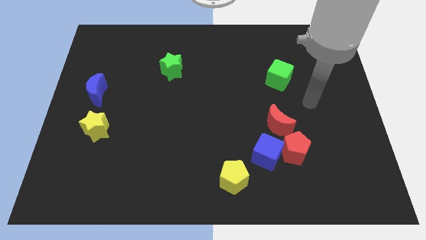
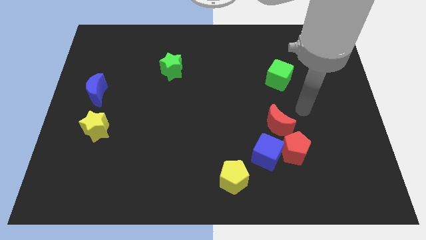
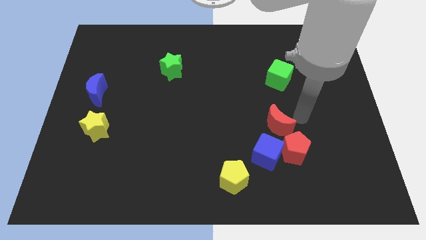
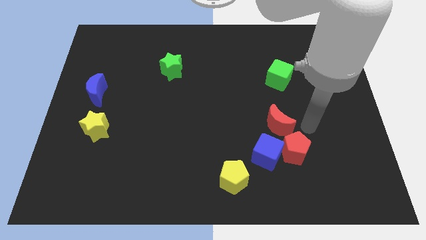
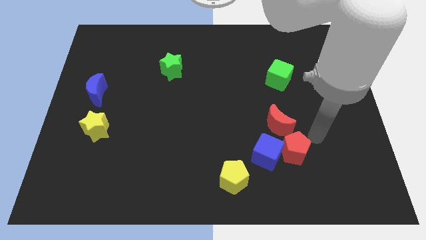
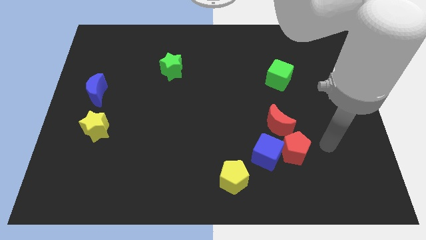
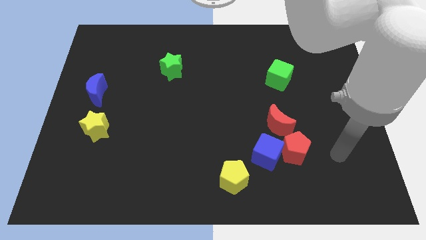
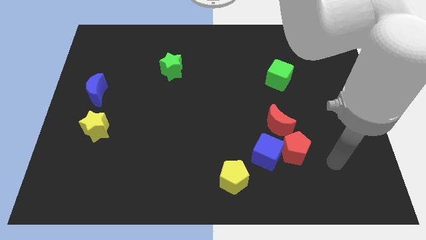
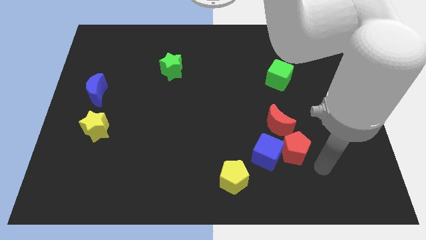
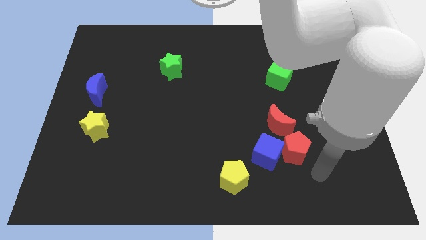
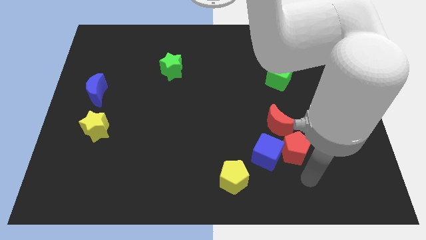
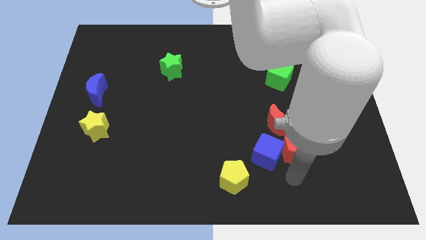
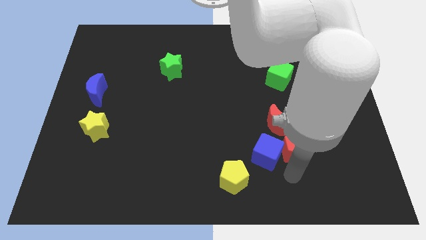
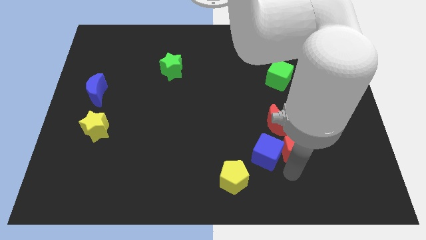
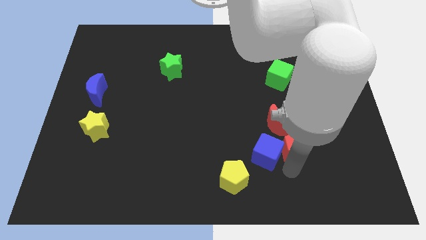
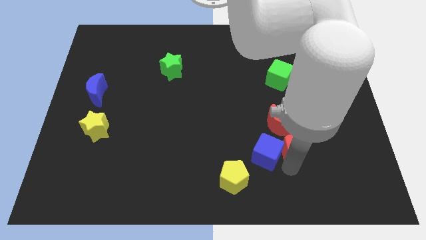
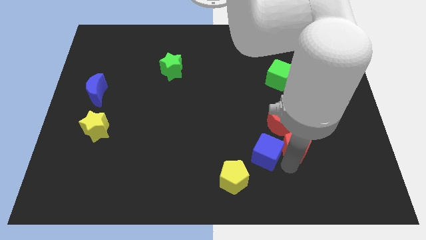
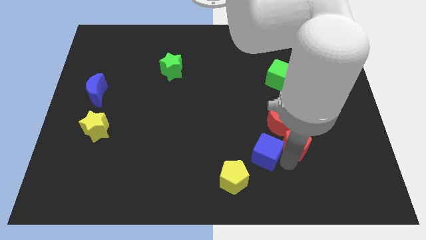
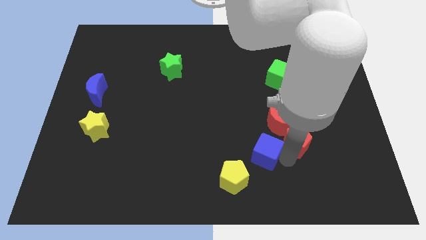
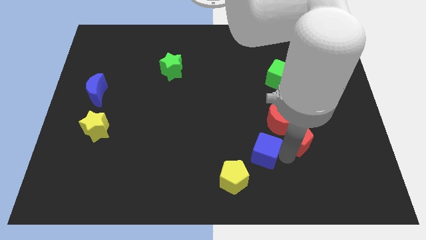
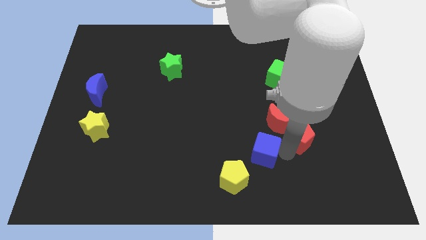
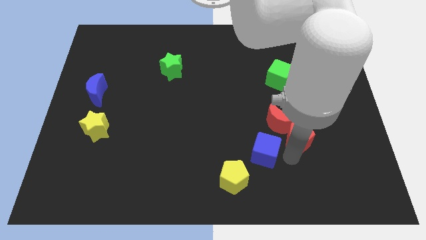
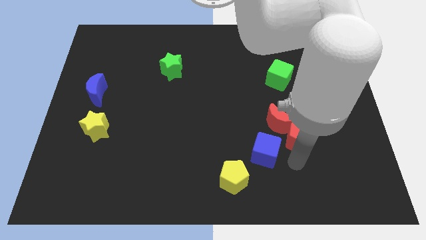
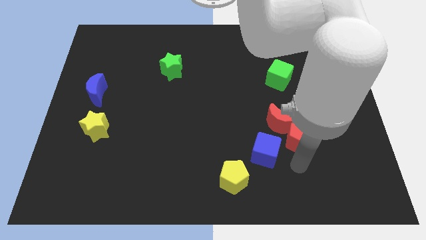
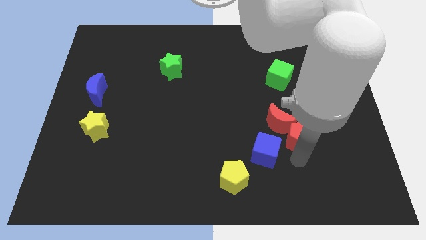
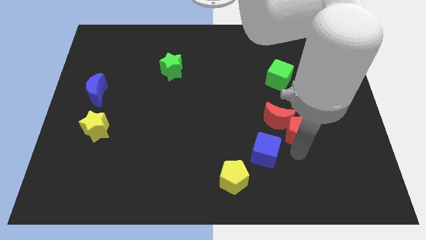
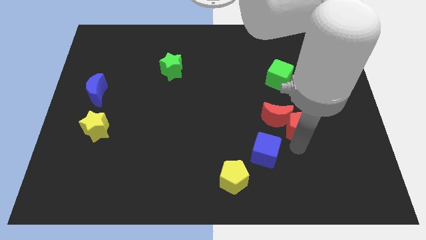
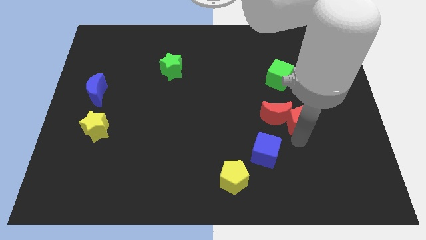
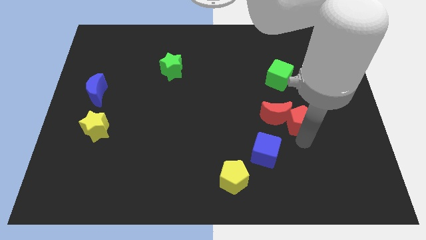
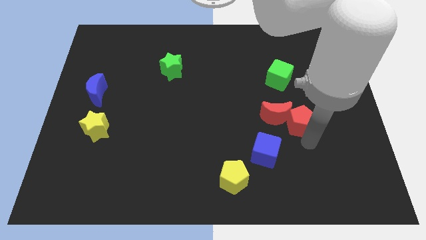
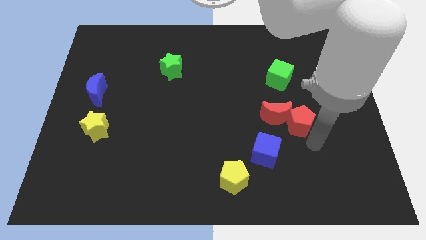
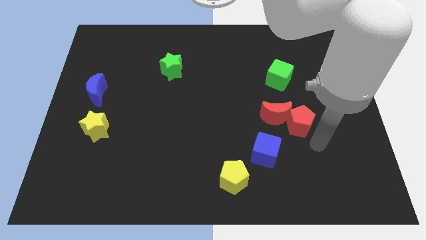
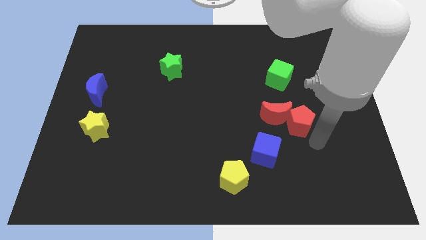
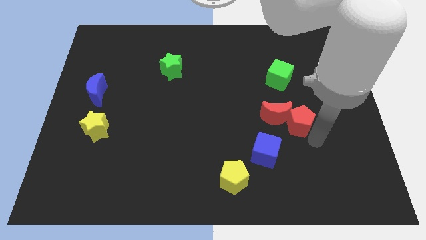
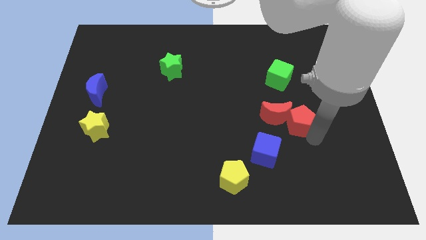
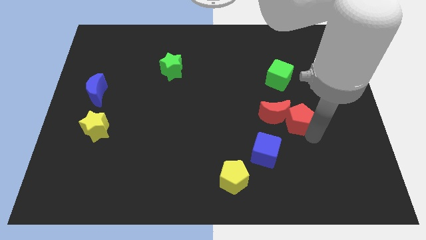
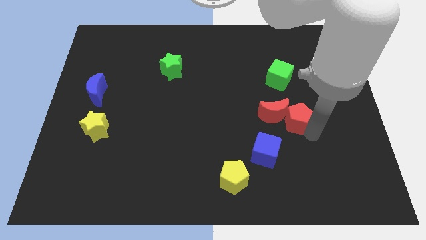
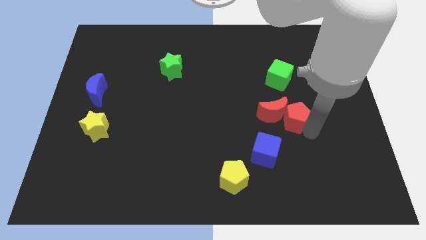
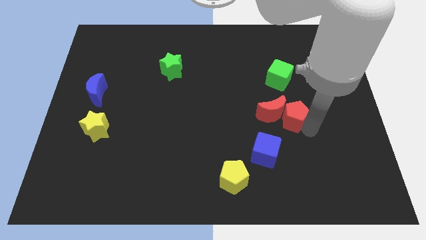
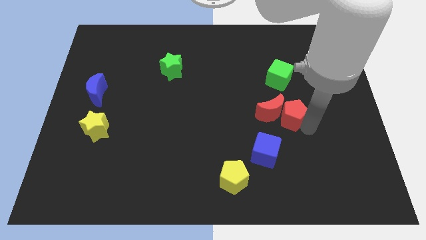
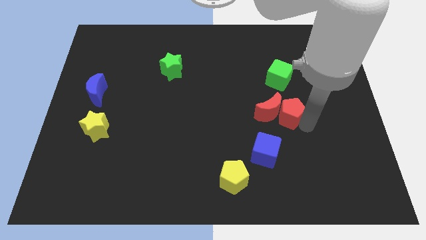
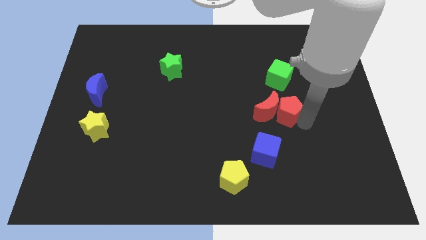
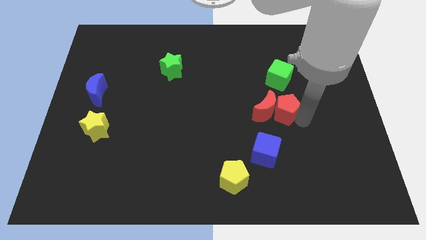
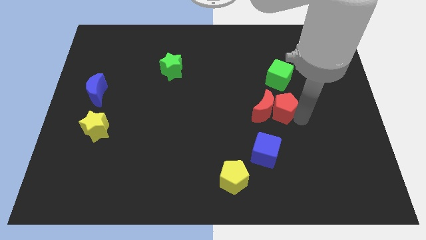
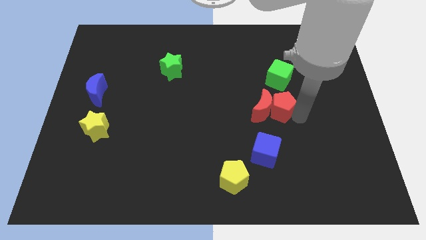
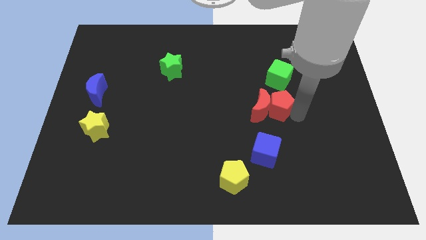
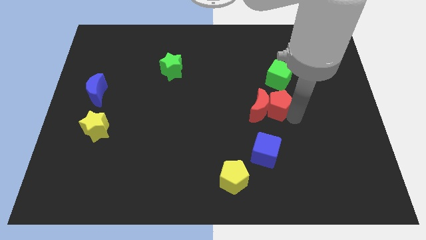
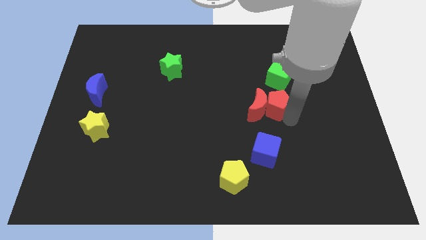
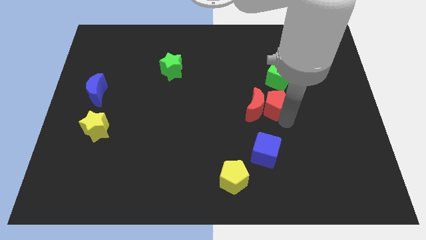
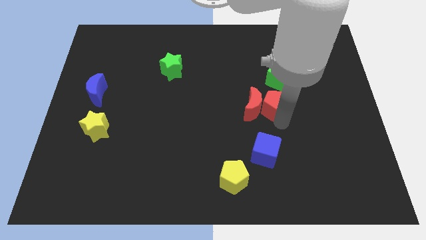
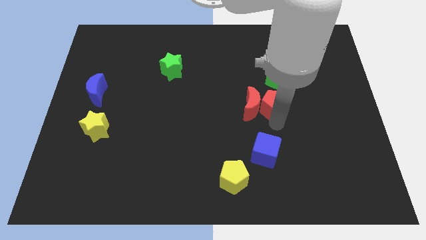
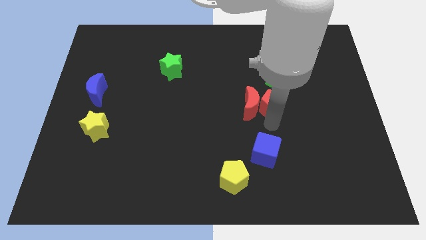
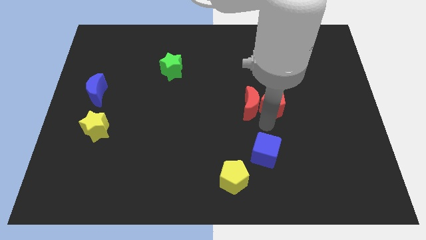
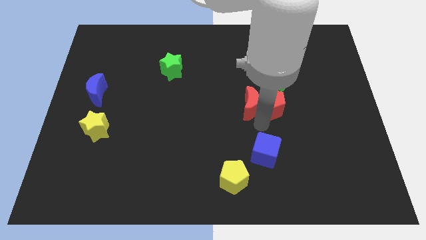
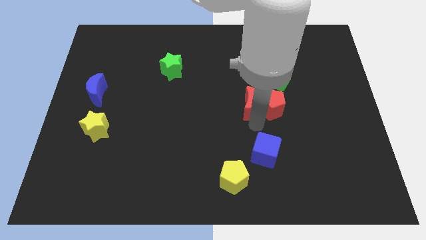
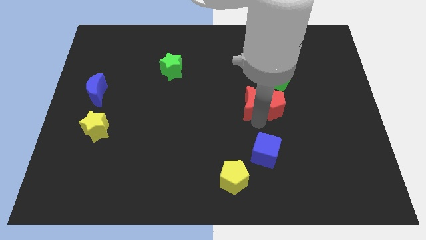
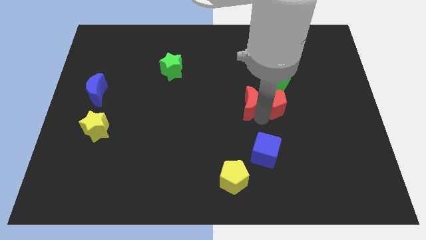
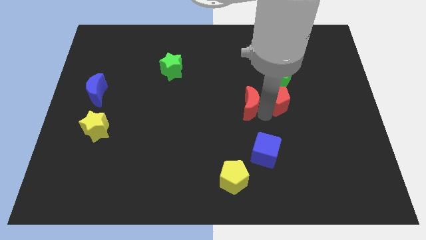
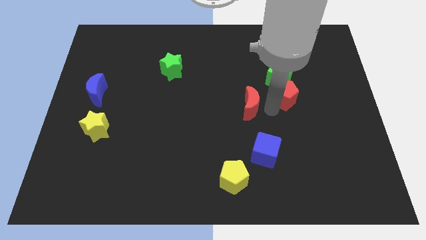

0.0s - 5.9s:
move the red pentagon to the green cube

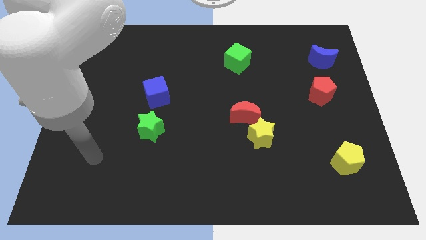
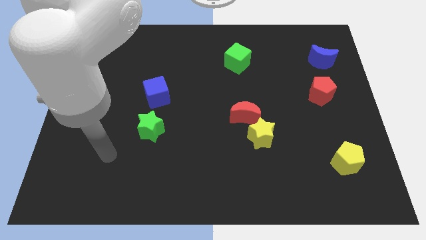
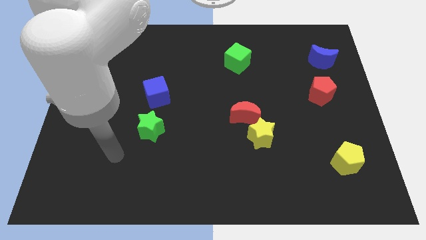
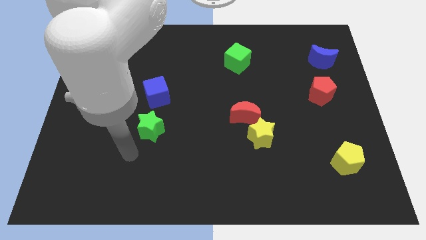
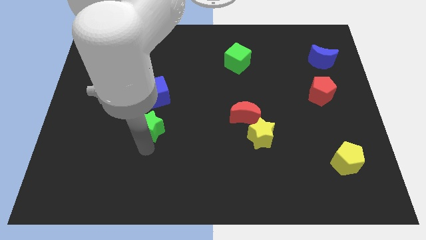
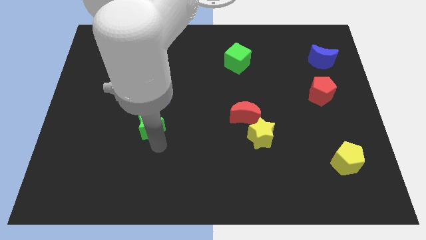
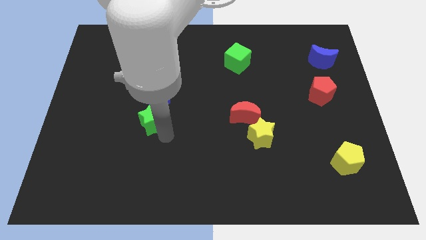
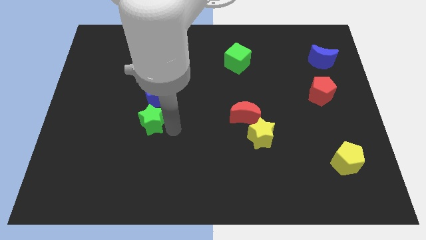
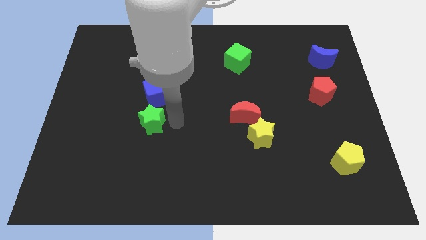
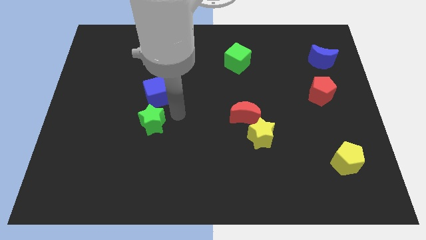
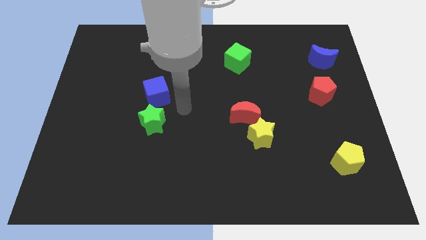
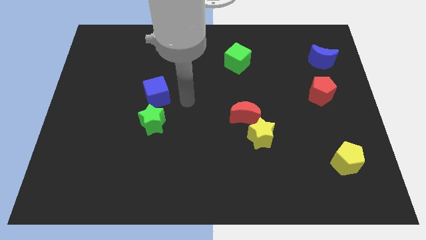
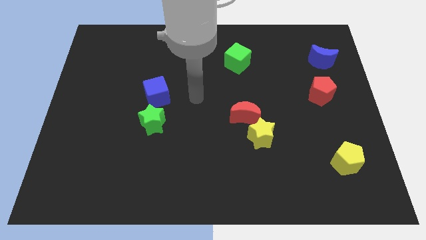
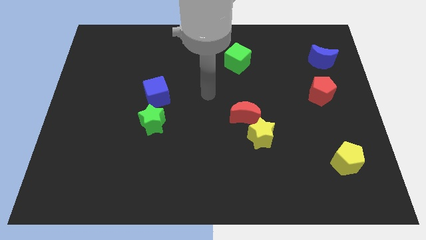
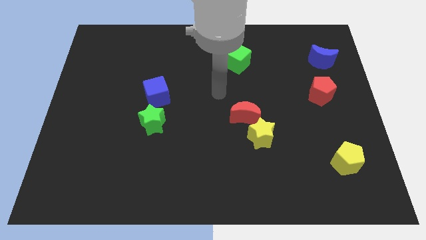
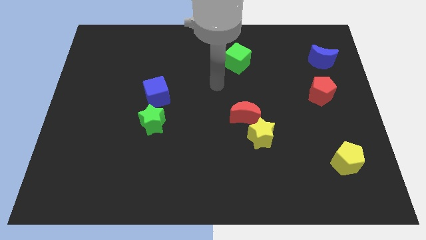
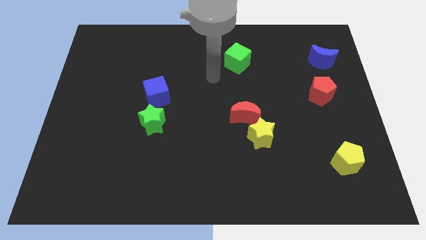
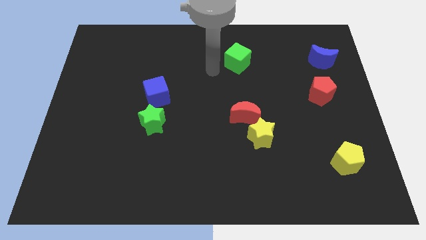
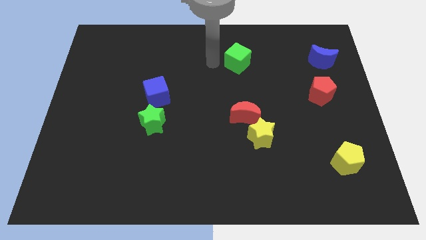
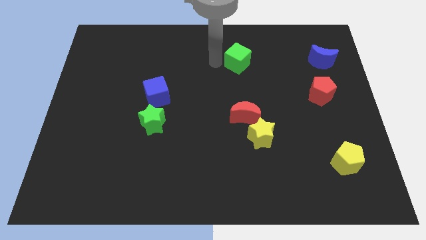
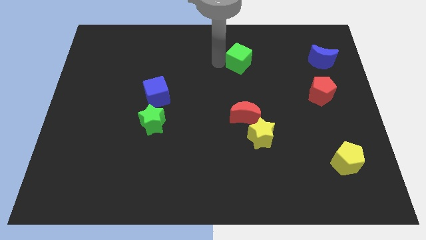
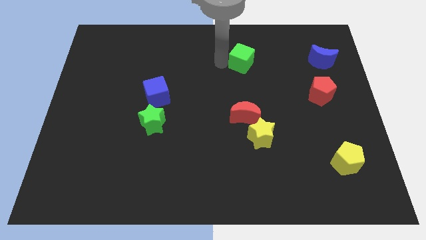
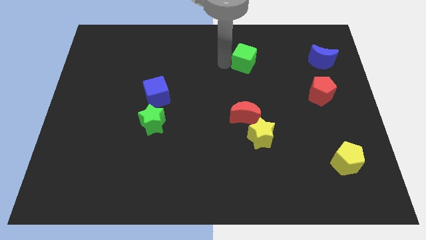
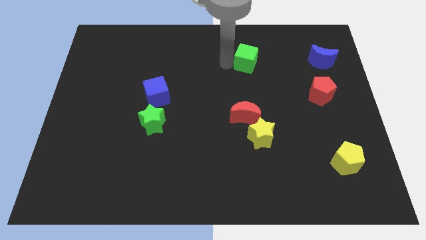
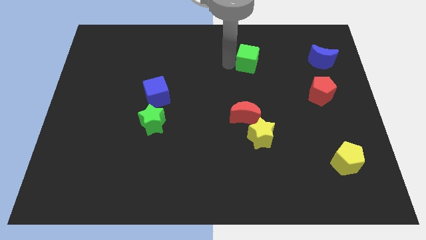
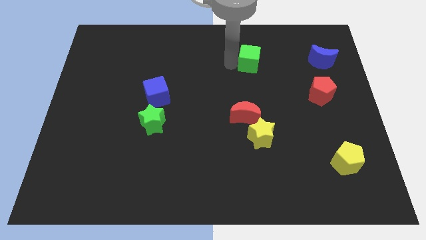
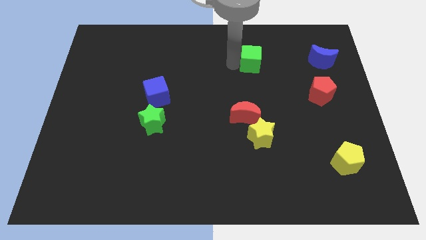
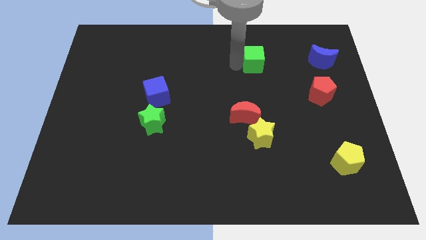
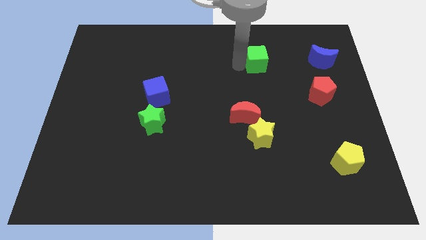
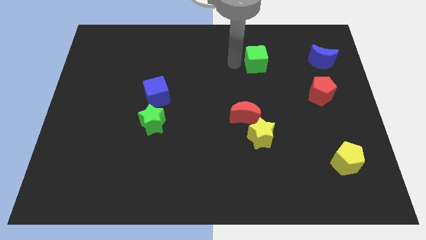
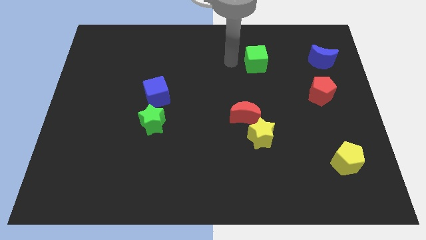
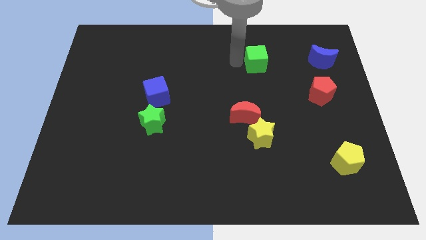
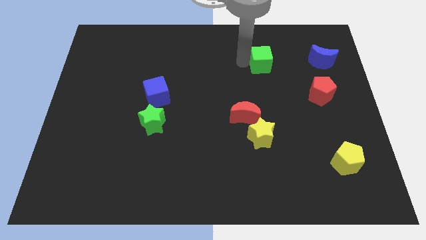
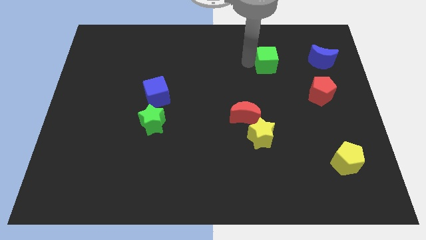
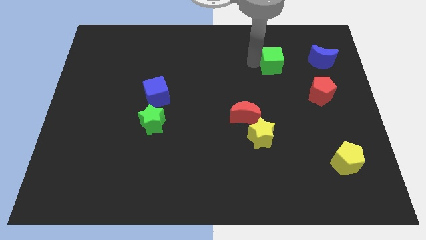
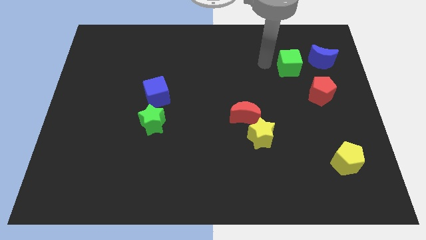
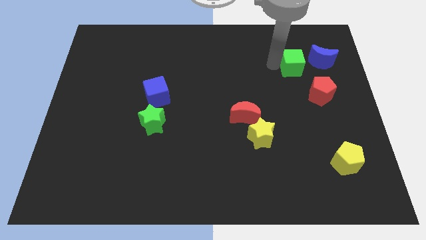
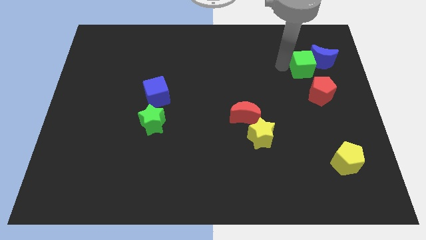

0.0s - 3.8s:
move the green cube next to the blue moon
